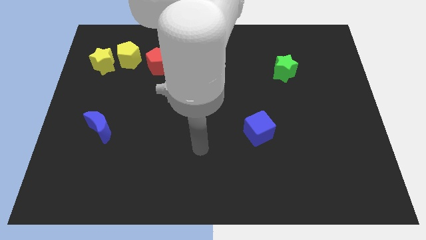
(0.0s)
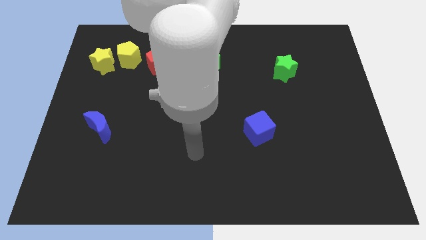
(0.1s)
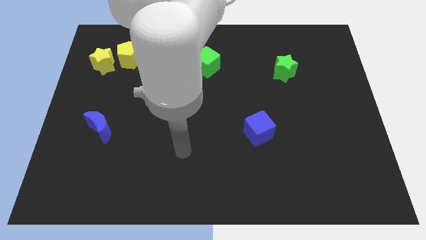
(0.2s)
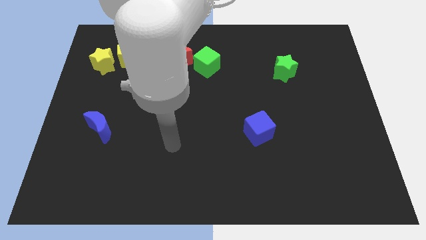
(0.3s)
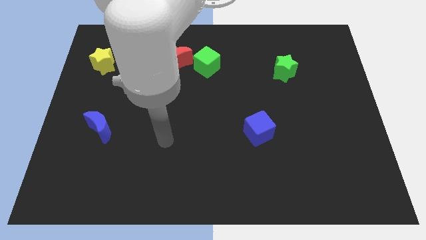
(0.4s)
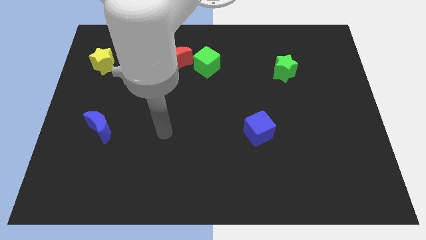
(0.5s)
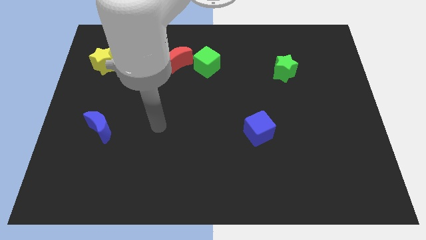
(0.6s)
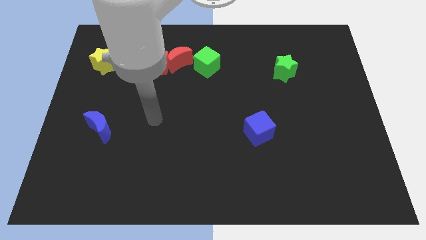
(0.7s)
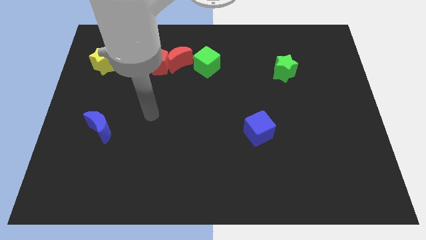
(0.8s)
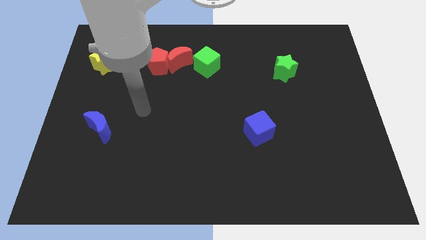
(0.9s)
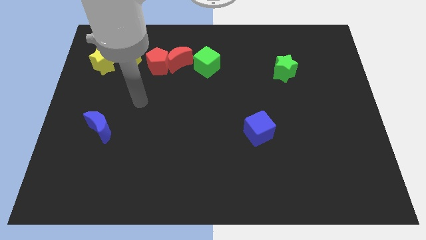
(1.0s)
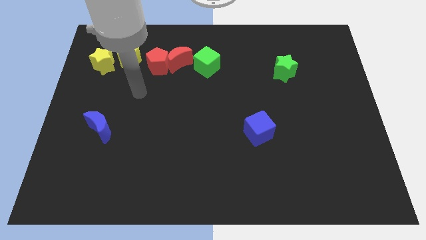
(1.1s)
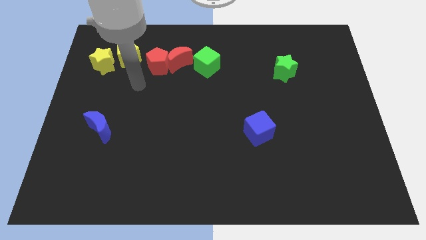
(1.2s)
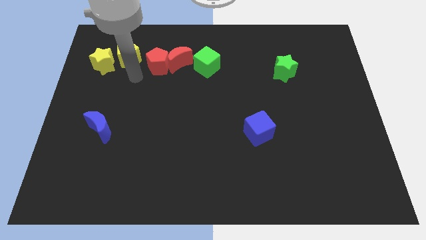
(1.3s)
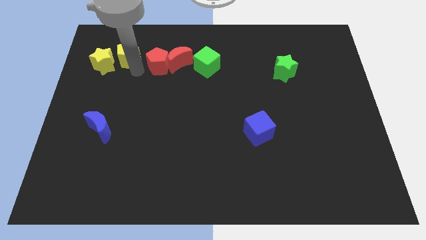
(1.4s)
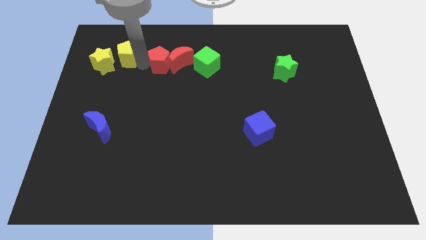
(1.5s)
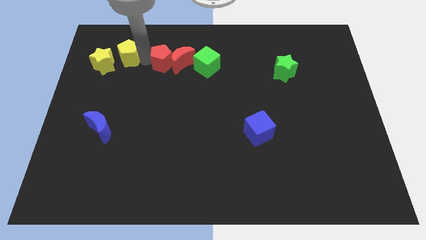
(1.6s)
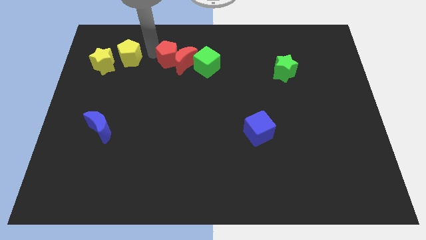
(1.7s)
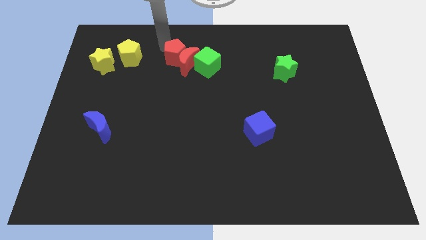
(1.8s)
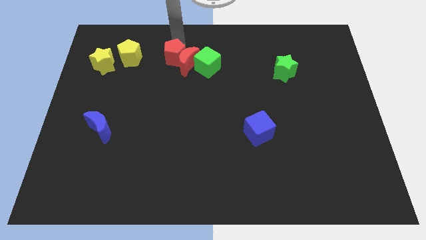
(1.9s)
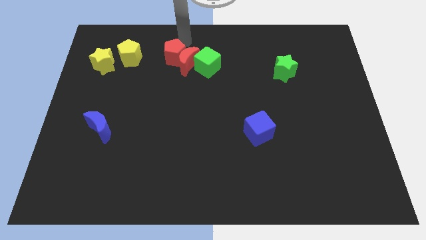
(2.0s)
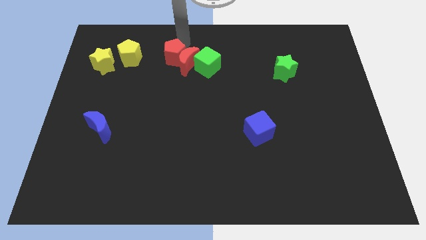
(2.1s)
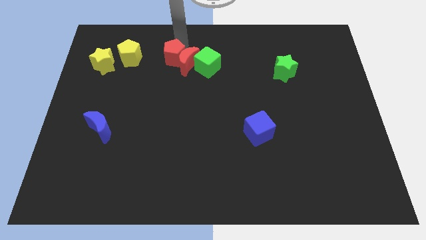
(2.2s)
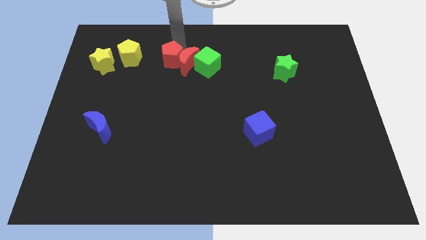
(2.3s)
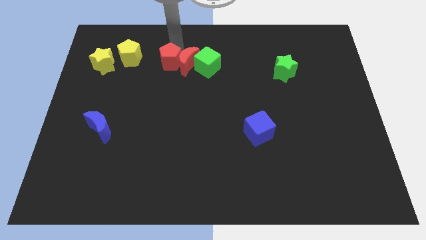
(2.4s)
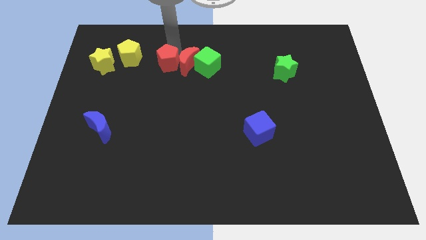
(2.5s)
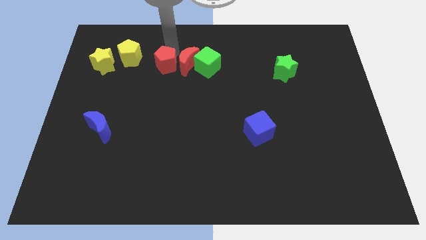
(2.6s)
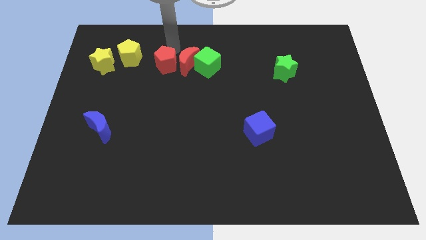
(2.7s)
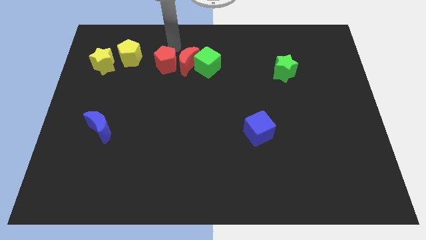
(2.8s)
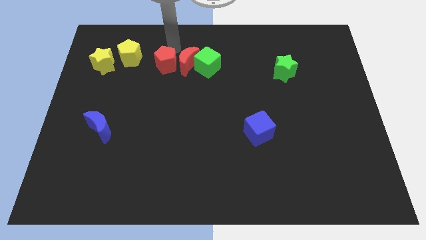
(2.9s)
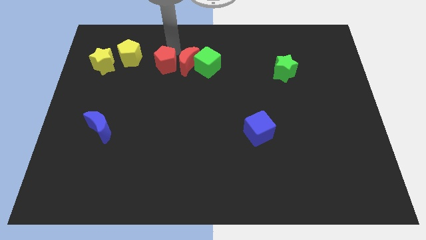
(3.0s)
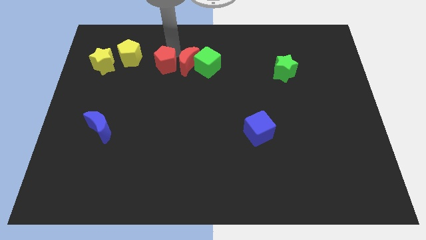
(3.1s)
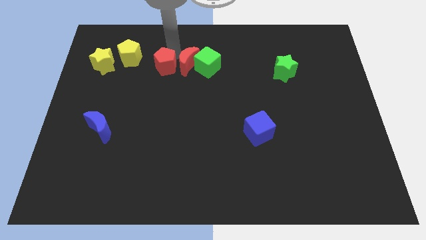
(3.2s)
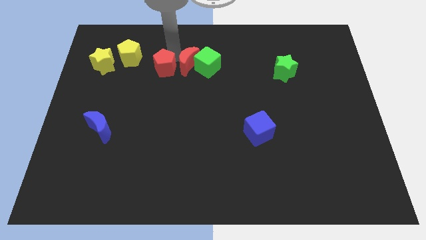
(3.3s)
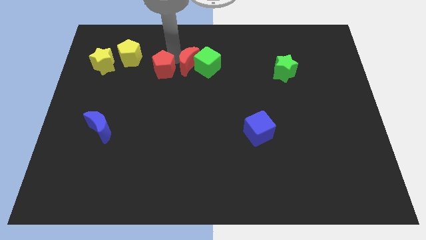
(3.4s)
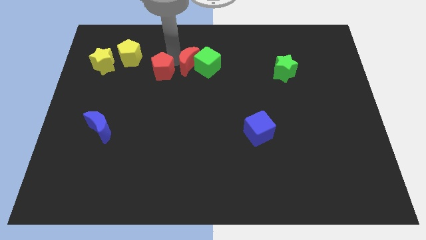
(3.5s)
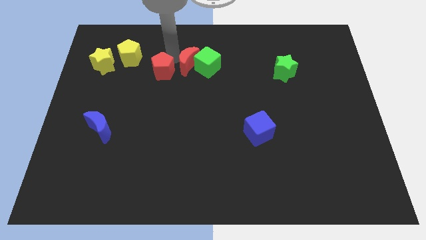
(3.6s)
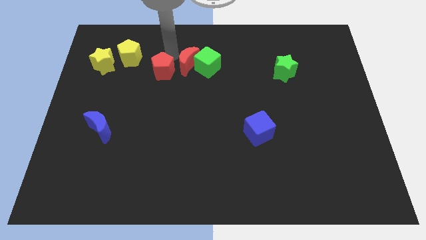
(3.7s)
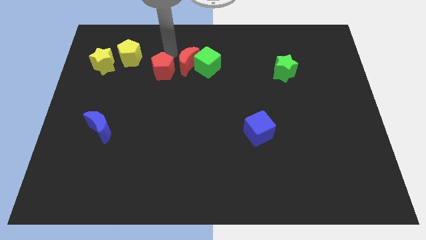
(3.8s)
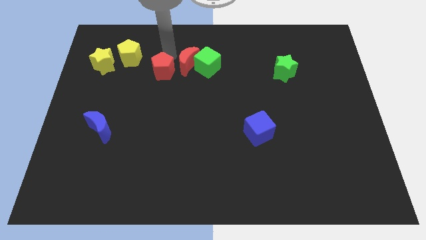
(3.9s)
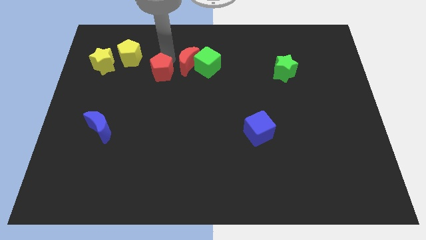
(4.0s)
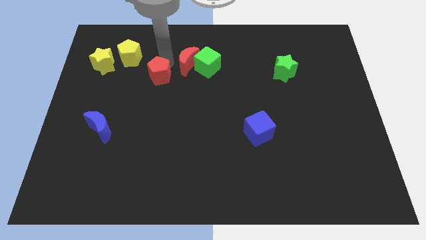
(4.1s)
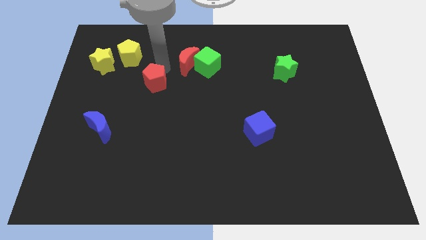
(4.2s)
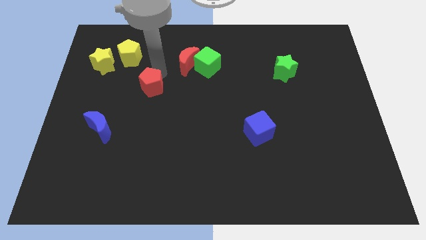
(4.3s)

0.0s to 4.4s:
push the red pentagon downwards slightly

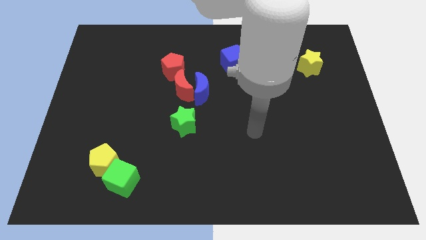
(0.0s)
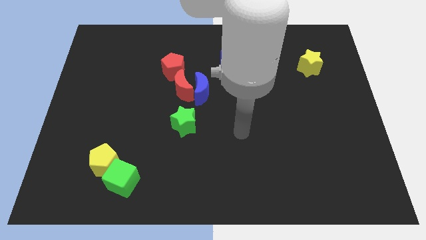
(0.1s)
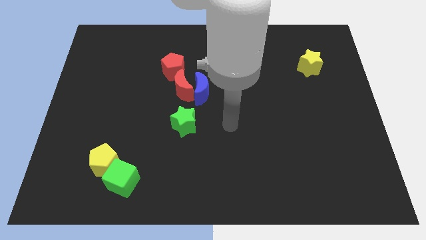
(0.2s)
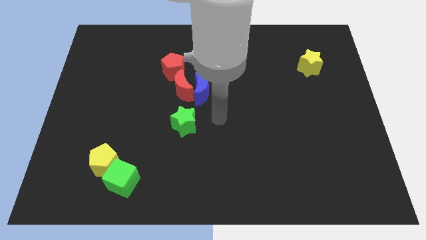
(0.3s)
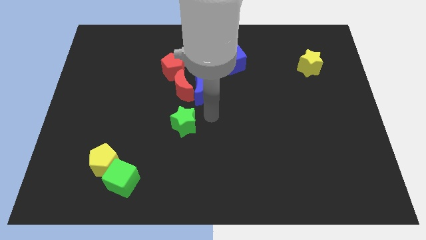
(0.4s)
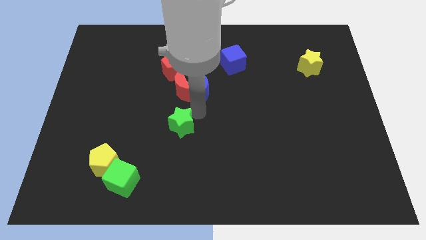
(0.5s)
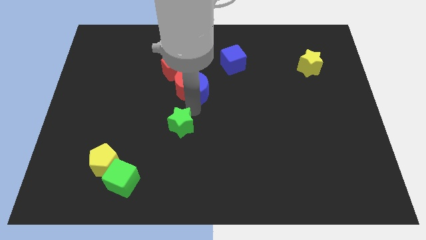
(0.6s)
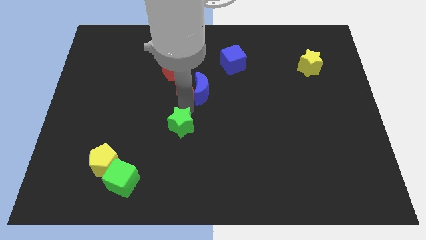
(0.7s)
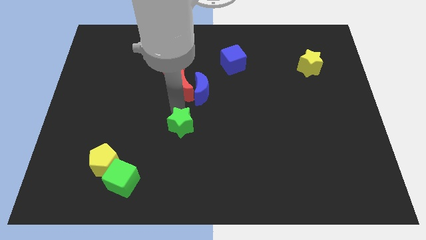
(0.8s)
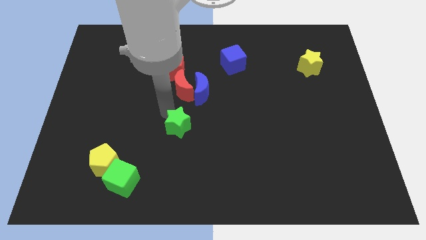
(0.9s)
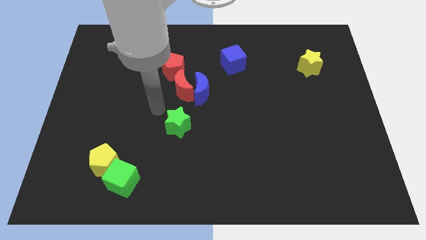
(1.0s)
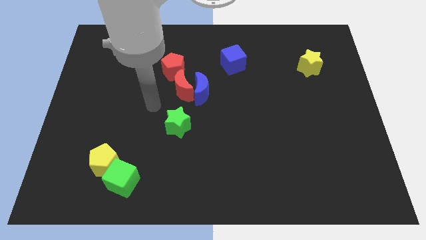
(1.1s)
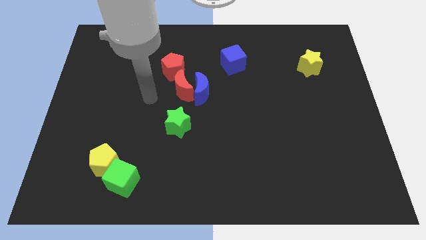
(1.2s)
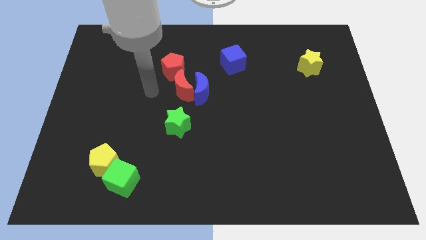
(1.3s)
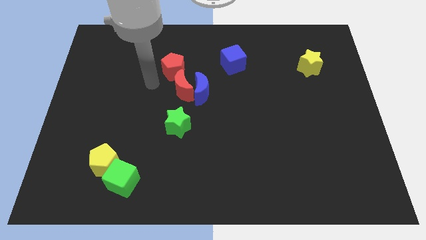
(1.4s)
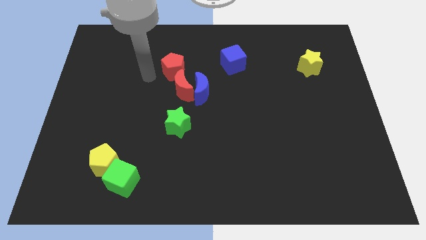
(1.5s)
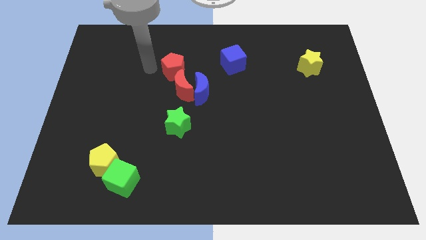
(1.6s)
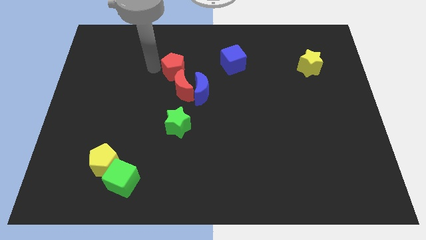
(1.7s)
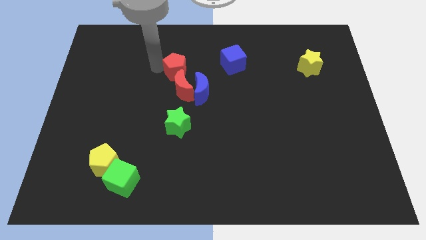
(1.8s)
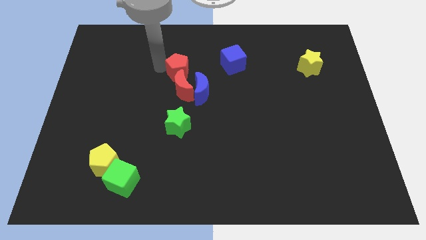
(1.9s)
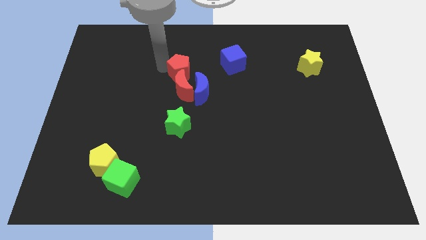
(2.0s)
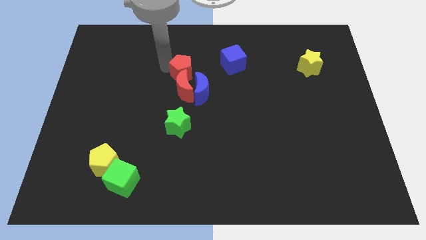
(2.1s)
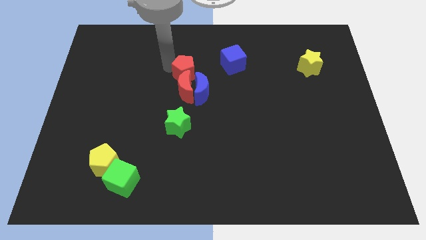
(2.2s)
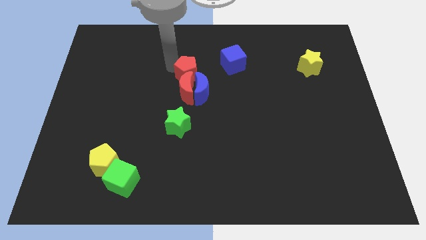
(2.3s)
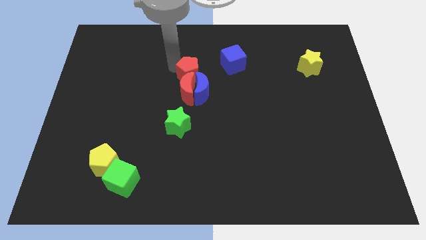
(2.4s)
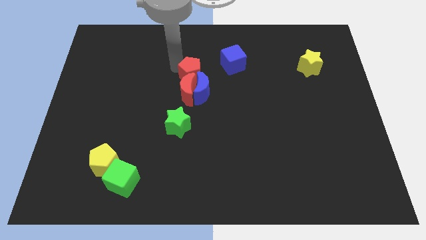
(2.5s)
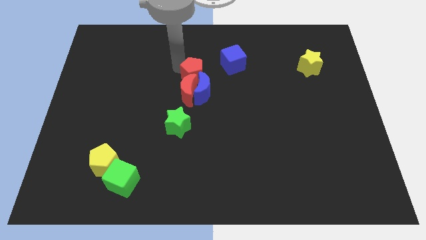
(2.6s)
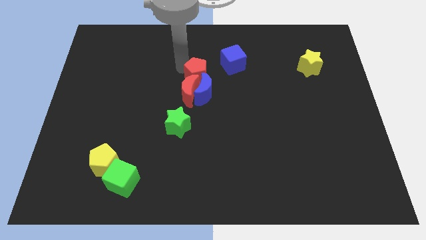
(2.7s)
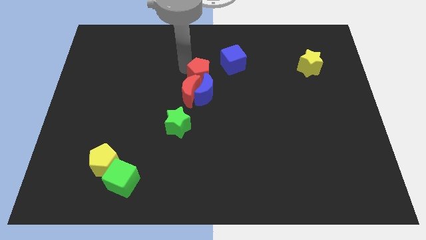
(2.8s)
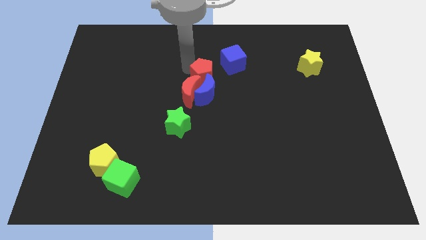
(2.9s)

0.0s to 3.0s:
push the red pentagon a little bit to the right

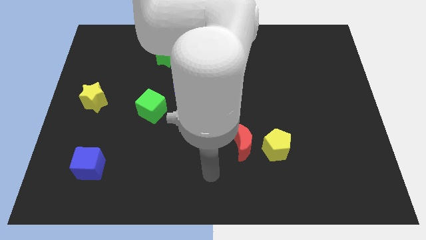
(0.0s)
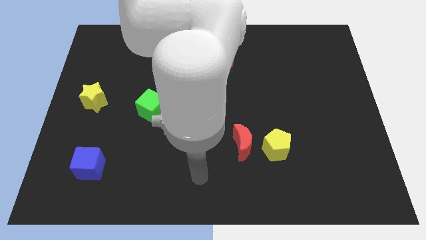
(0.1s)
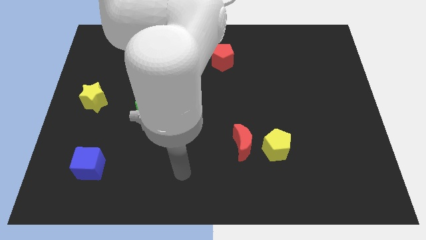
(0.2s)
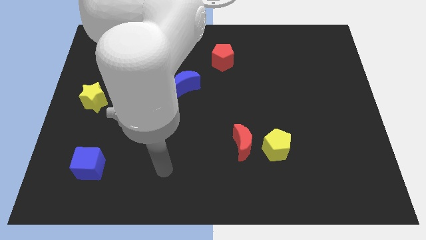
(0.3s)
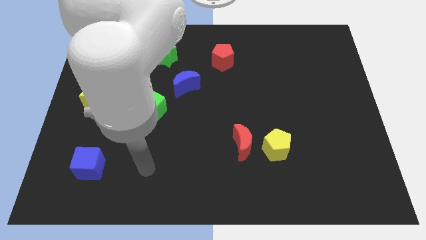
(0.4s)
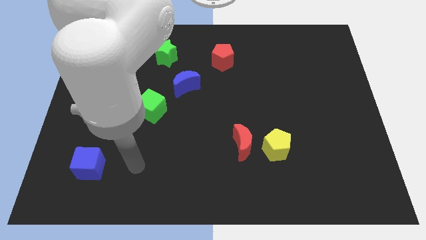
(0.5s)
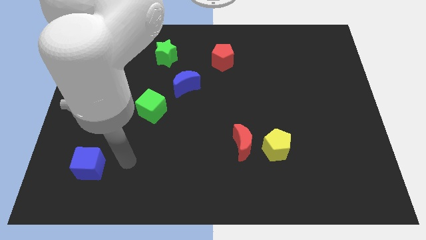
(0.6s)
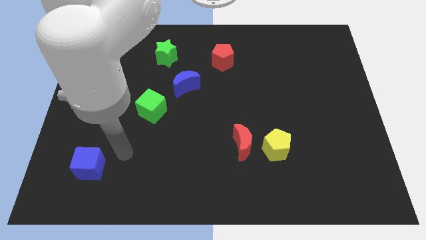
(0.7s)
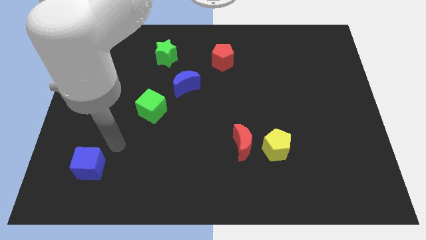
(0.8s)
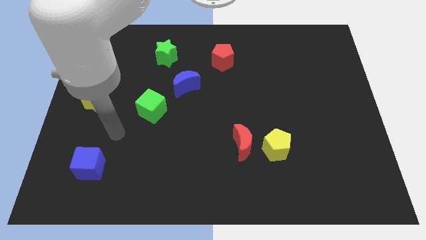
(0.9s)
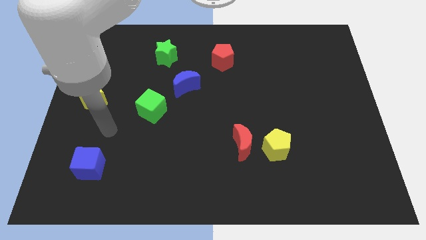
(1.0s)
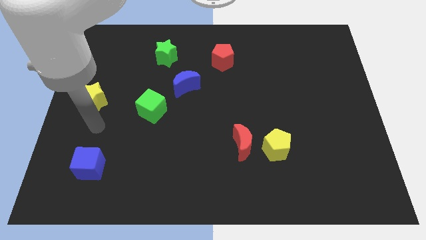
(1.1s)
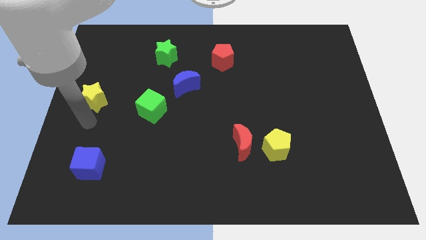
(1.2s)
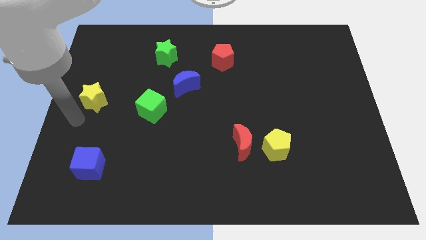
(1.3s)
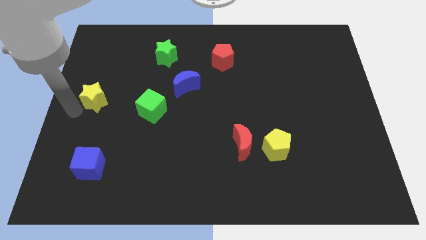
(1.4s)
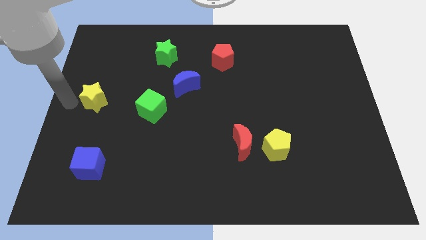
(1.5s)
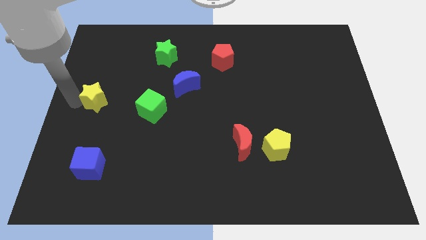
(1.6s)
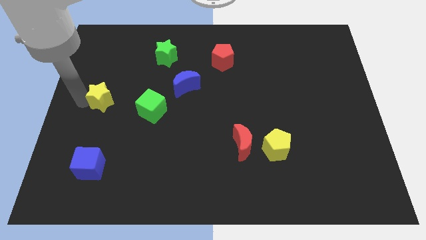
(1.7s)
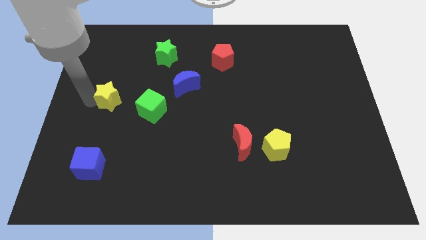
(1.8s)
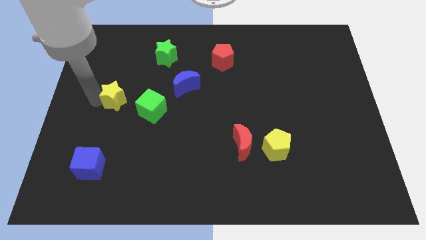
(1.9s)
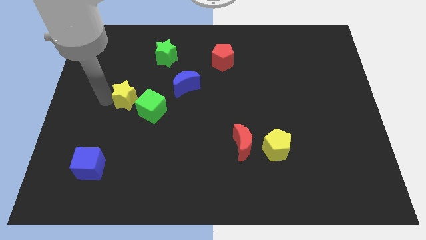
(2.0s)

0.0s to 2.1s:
push the yellow star right slightly
